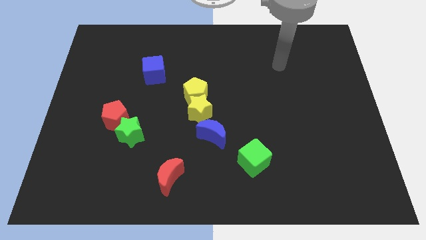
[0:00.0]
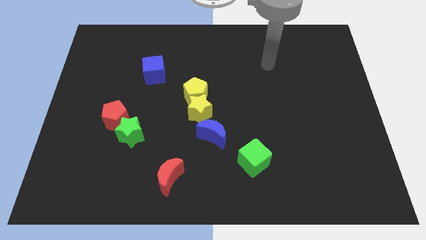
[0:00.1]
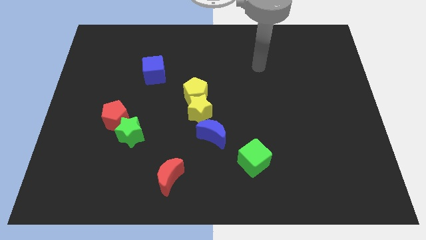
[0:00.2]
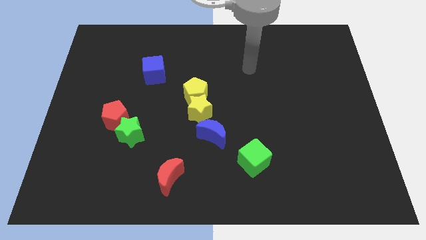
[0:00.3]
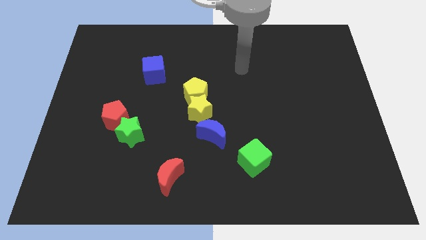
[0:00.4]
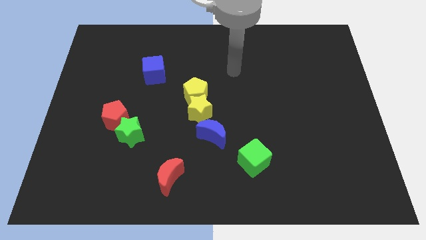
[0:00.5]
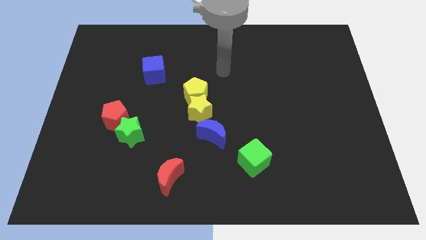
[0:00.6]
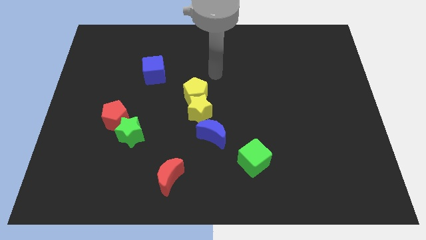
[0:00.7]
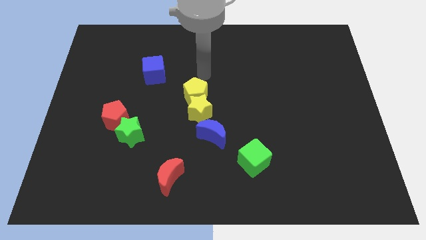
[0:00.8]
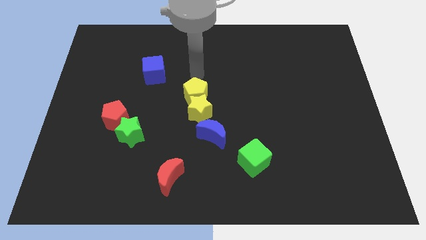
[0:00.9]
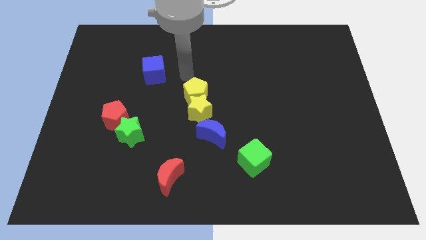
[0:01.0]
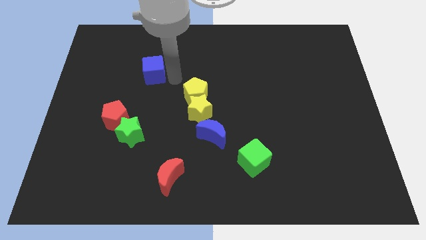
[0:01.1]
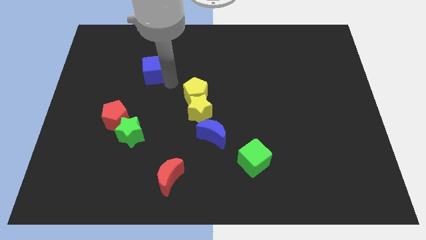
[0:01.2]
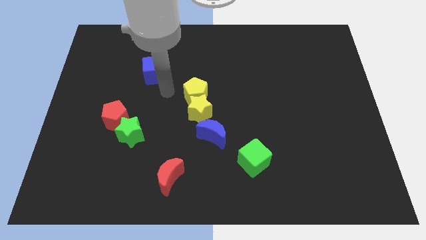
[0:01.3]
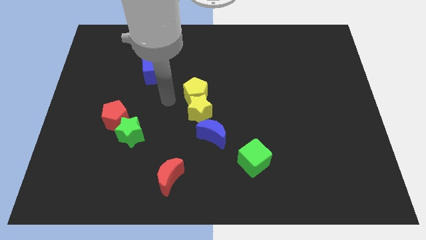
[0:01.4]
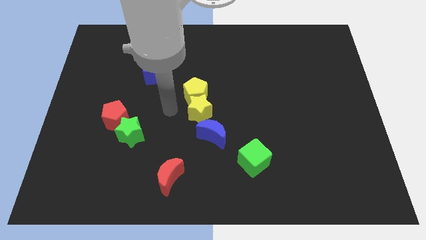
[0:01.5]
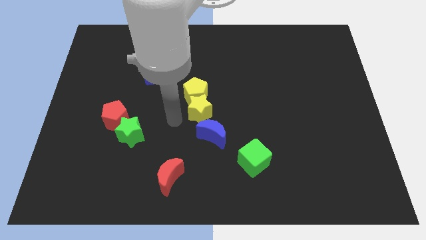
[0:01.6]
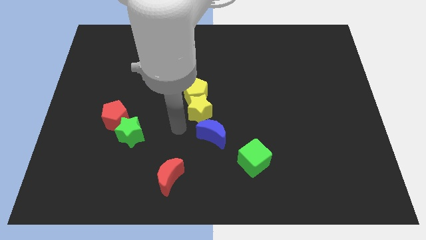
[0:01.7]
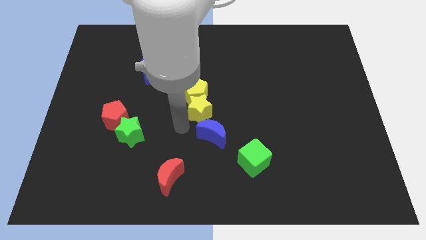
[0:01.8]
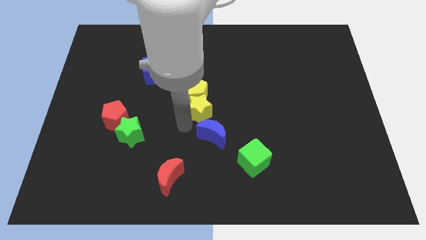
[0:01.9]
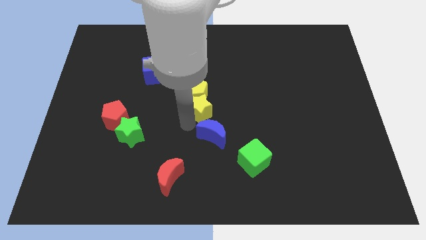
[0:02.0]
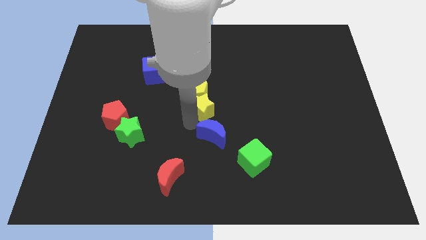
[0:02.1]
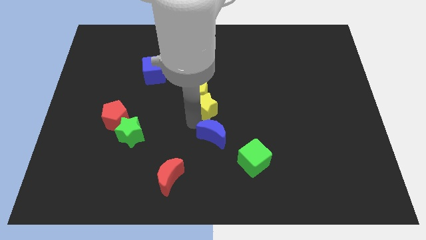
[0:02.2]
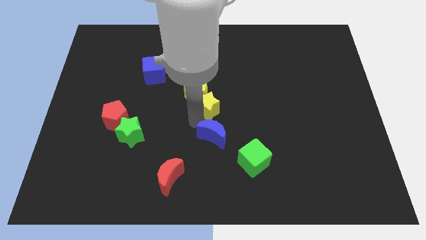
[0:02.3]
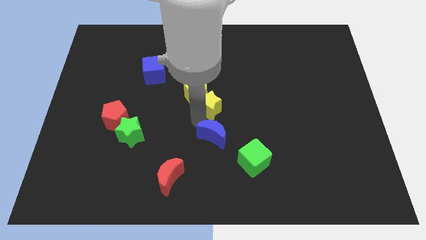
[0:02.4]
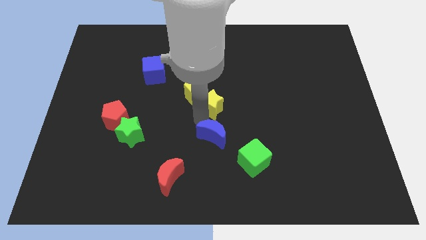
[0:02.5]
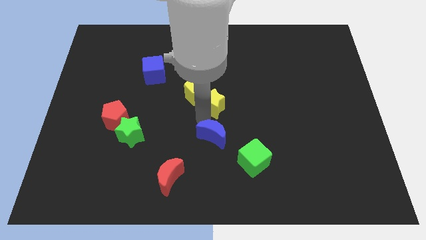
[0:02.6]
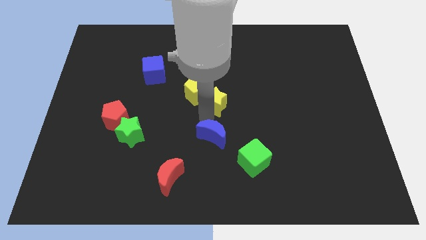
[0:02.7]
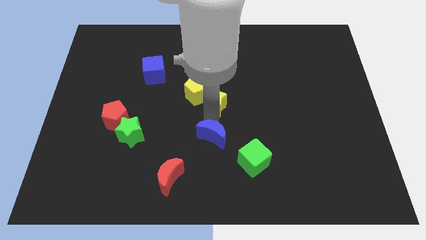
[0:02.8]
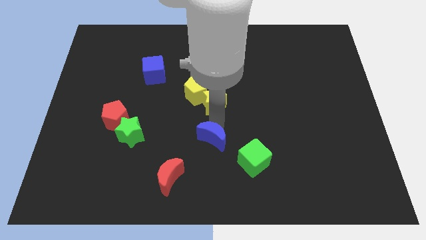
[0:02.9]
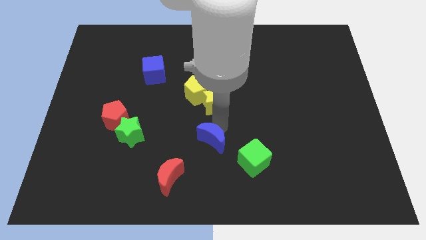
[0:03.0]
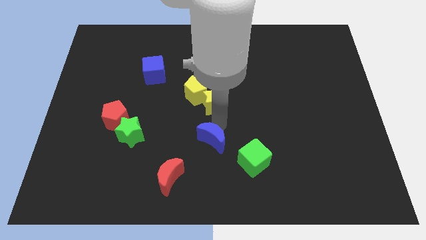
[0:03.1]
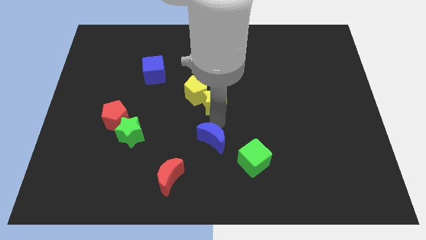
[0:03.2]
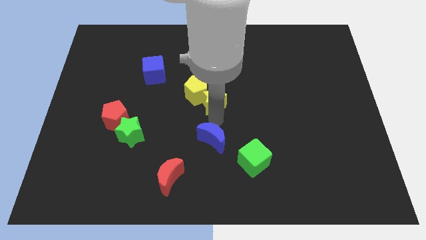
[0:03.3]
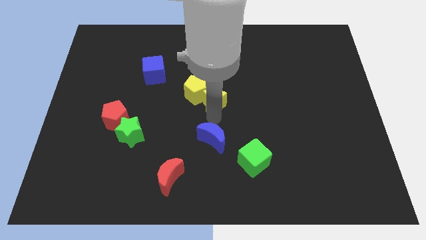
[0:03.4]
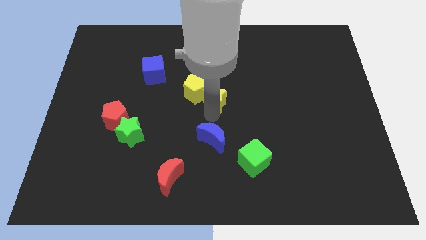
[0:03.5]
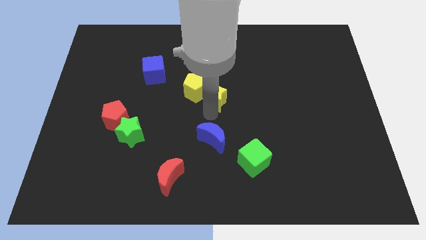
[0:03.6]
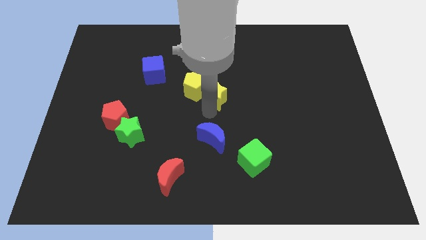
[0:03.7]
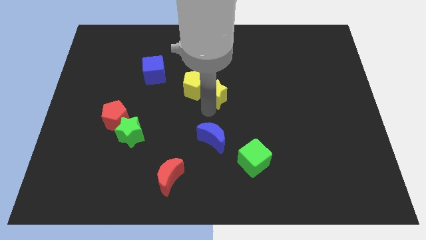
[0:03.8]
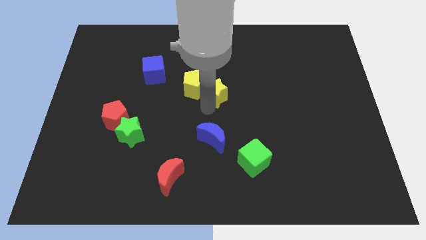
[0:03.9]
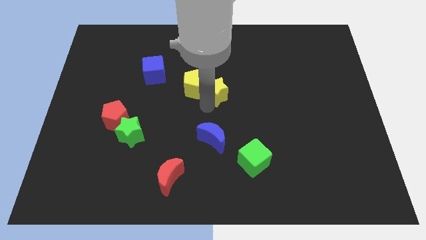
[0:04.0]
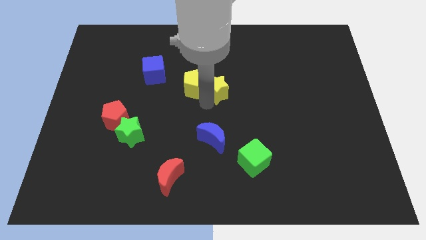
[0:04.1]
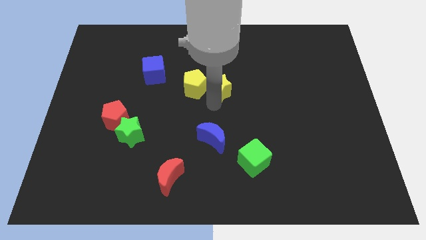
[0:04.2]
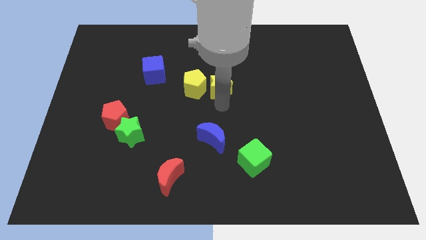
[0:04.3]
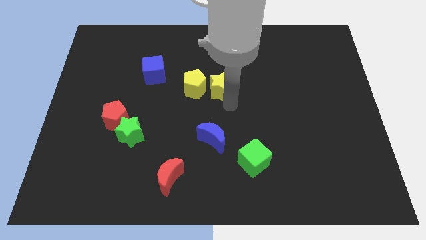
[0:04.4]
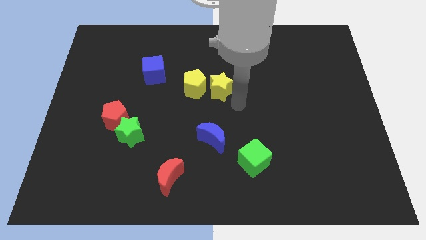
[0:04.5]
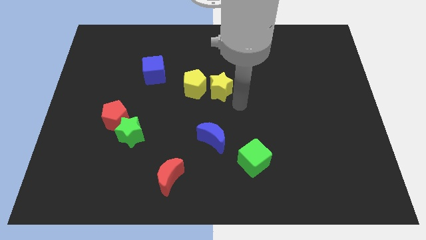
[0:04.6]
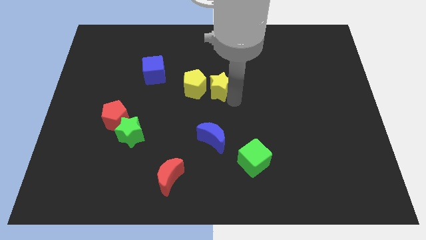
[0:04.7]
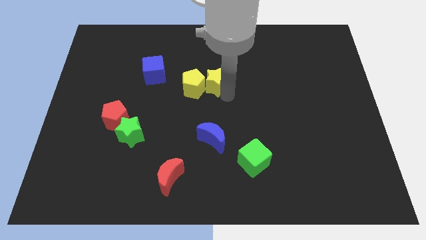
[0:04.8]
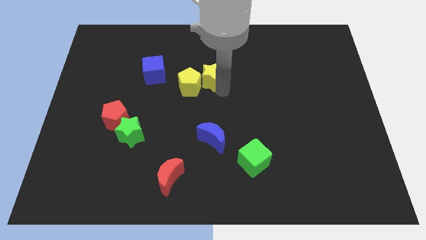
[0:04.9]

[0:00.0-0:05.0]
put the yellow star just right of the blue cube

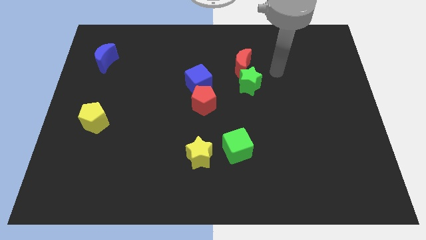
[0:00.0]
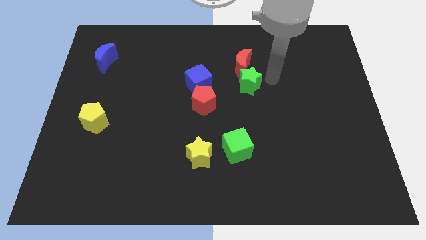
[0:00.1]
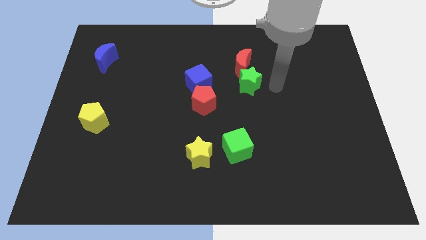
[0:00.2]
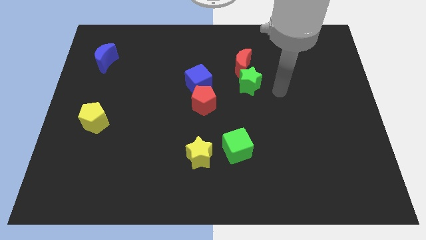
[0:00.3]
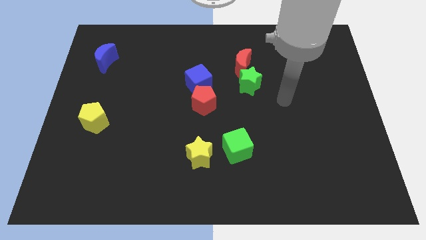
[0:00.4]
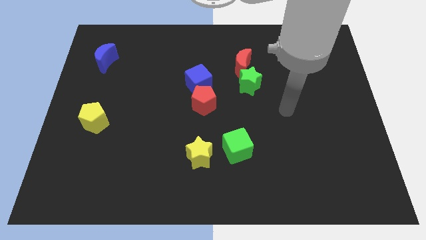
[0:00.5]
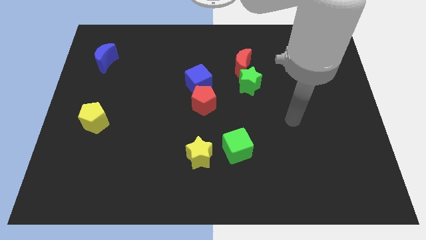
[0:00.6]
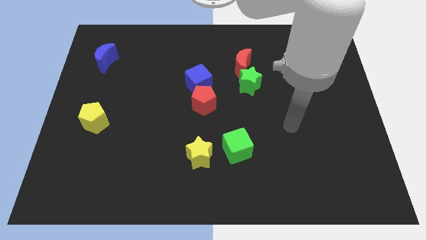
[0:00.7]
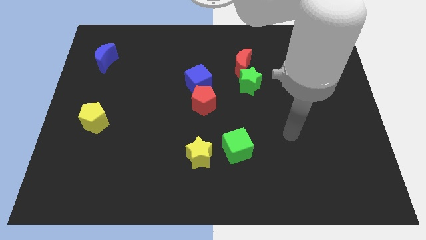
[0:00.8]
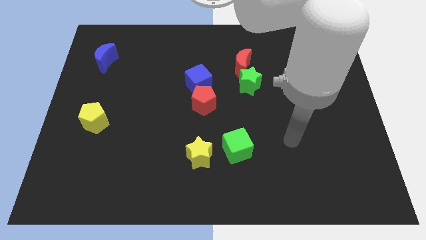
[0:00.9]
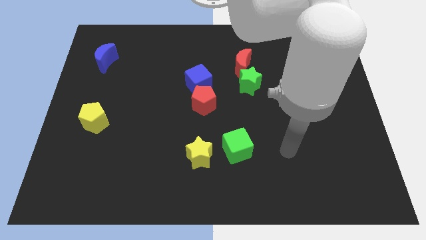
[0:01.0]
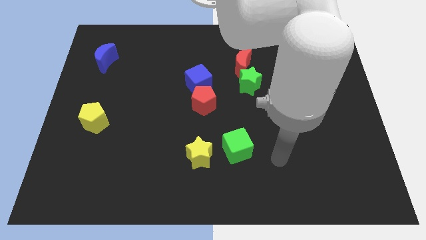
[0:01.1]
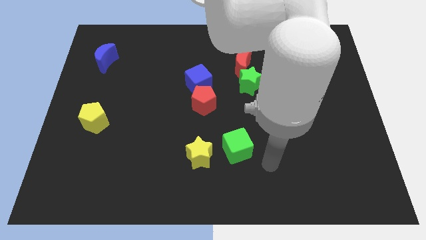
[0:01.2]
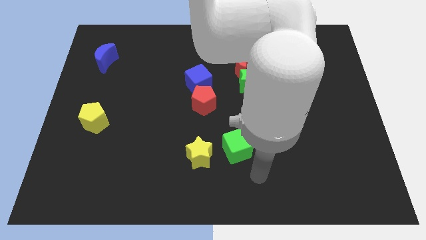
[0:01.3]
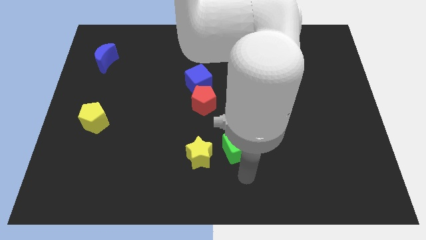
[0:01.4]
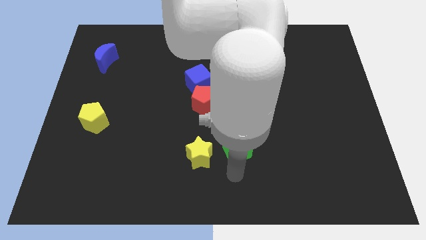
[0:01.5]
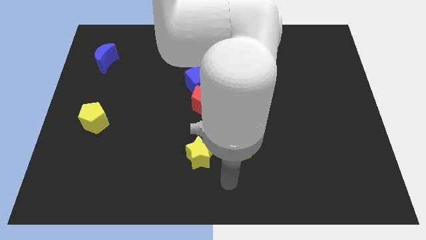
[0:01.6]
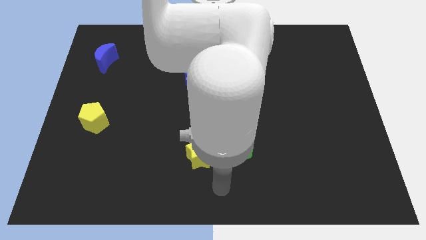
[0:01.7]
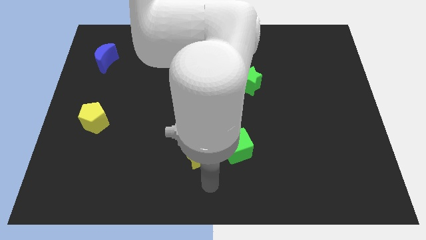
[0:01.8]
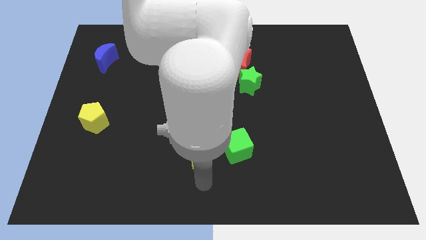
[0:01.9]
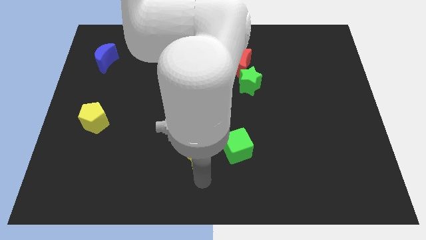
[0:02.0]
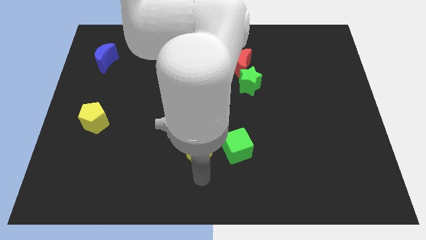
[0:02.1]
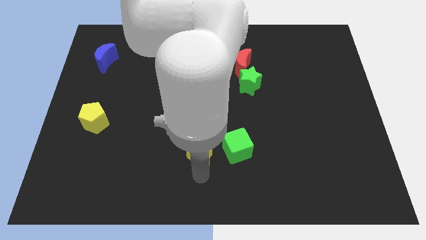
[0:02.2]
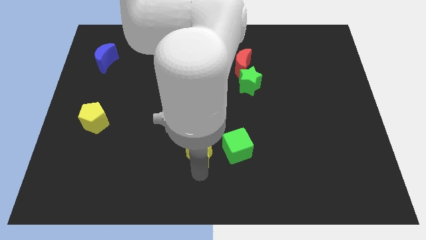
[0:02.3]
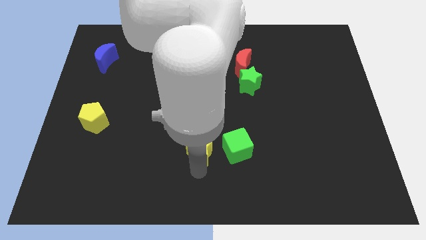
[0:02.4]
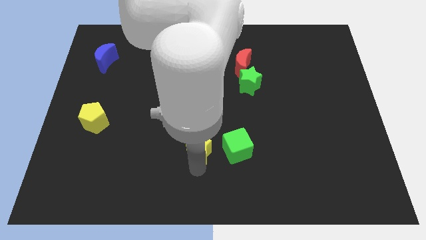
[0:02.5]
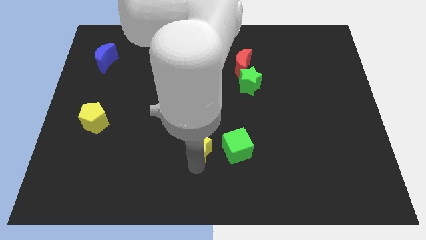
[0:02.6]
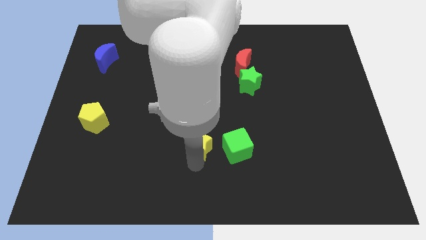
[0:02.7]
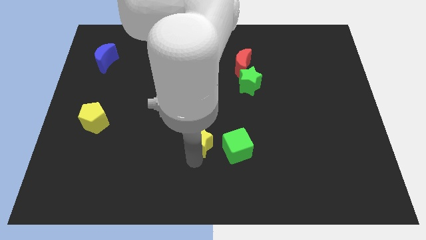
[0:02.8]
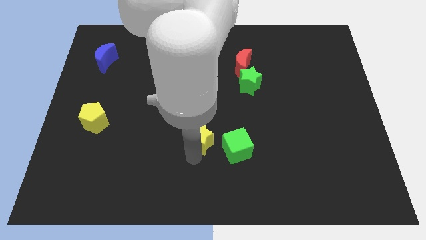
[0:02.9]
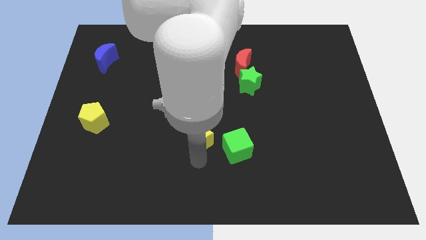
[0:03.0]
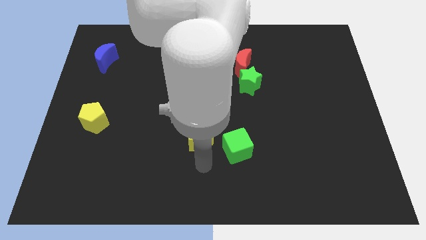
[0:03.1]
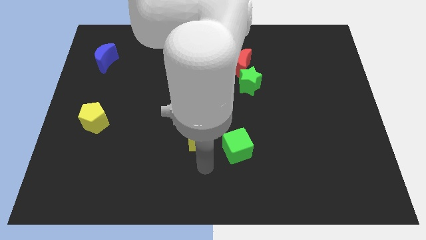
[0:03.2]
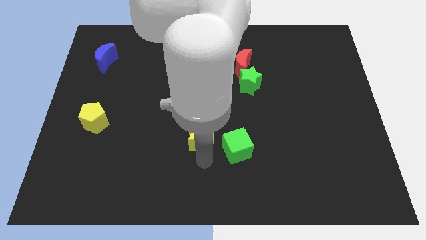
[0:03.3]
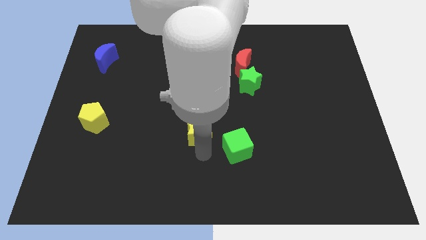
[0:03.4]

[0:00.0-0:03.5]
move the yellow star to the bottom side of the blue cube
